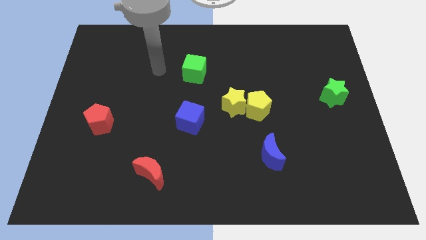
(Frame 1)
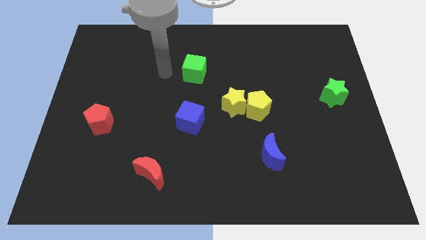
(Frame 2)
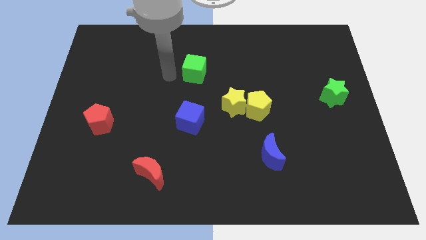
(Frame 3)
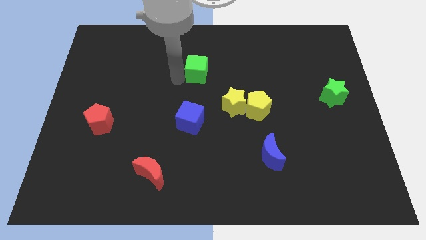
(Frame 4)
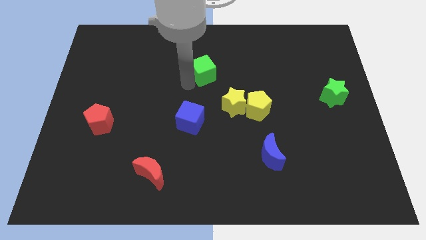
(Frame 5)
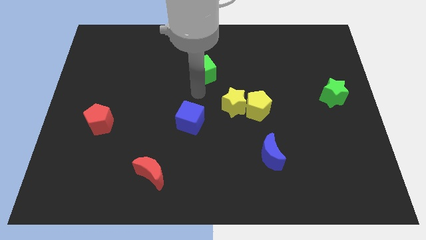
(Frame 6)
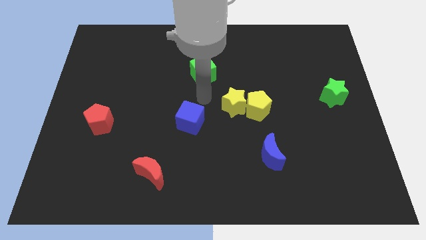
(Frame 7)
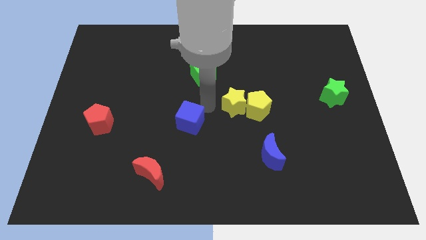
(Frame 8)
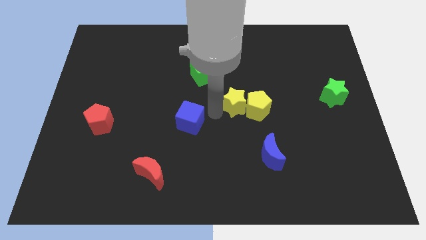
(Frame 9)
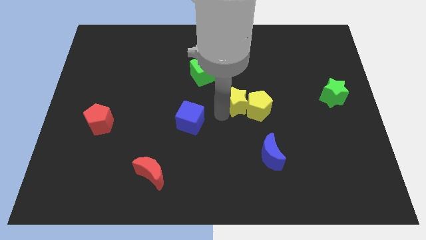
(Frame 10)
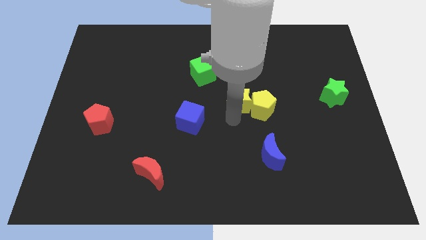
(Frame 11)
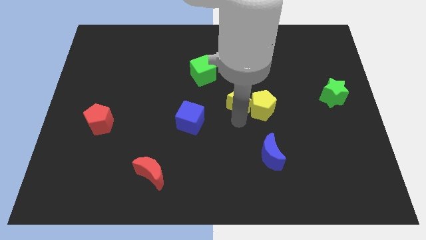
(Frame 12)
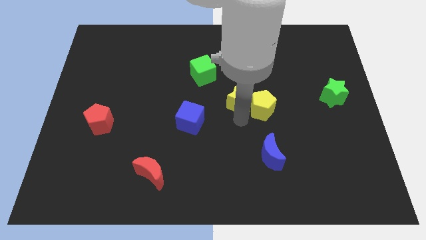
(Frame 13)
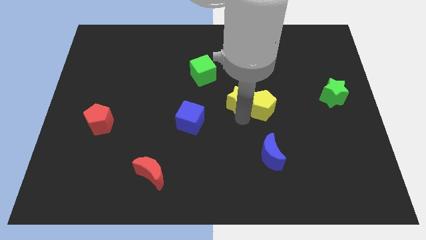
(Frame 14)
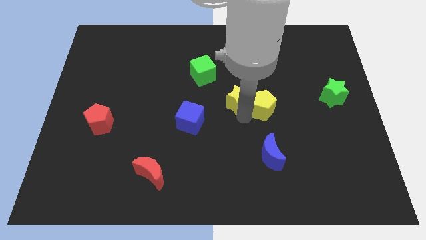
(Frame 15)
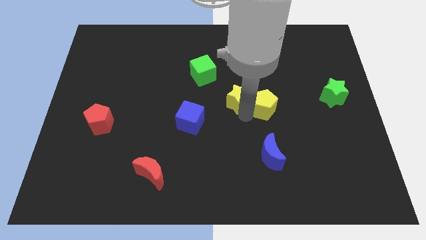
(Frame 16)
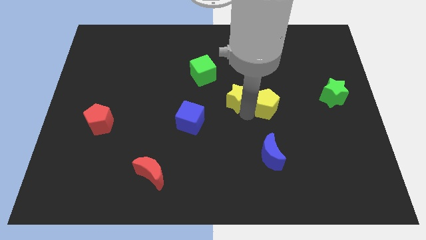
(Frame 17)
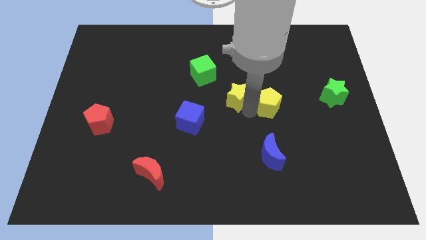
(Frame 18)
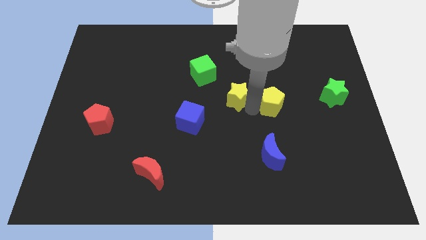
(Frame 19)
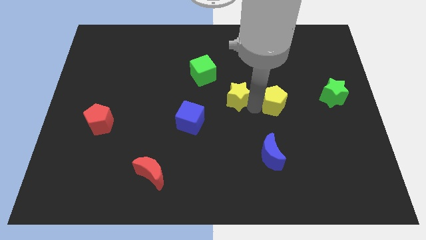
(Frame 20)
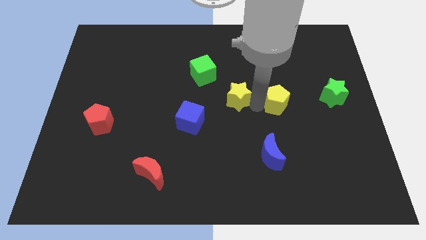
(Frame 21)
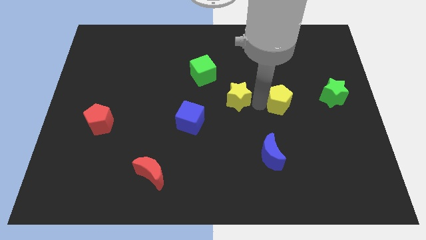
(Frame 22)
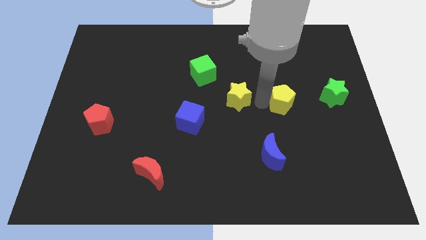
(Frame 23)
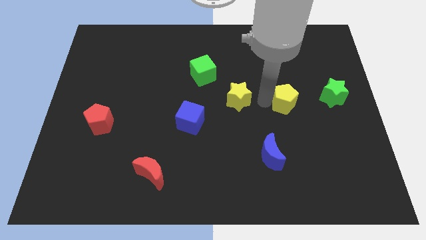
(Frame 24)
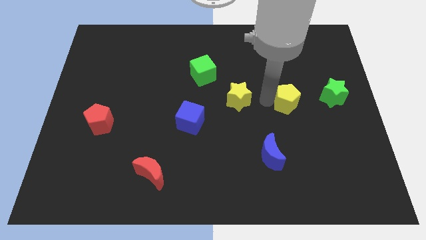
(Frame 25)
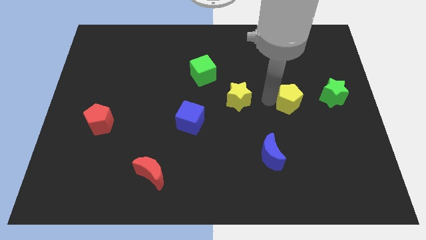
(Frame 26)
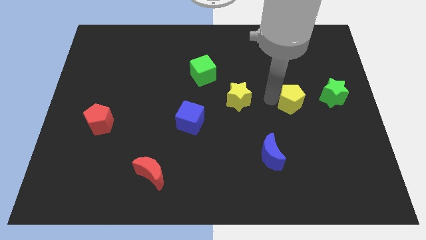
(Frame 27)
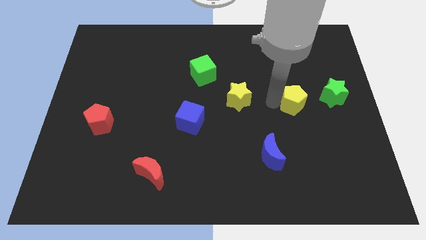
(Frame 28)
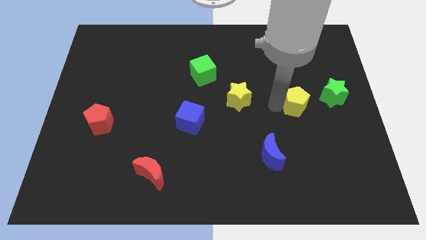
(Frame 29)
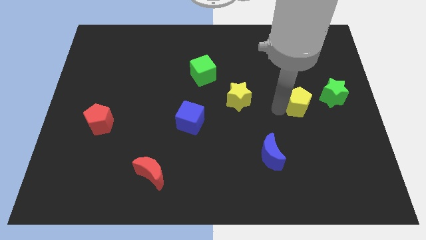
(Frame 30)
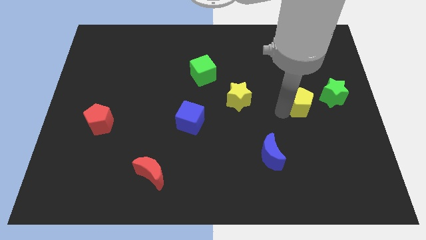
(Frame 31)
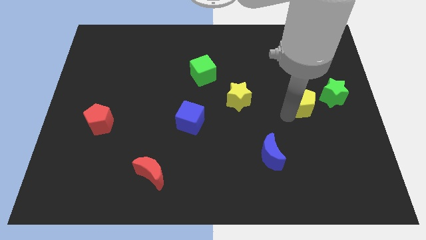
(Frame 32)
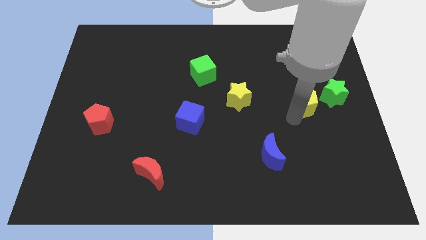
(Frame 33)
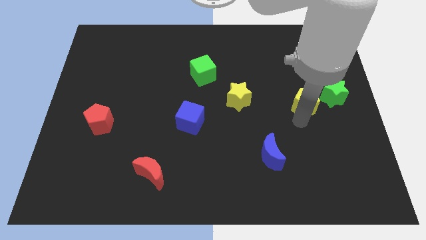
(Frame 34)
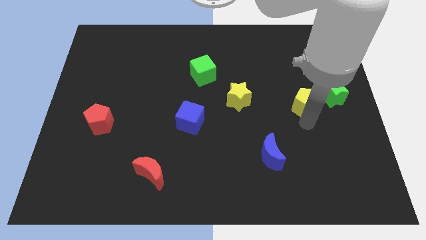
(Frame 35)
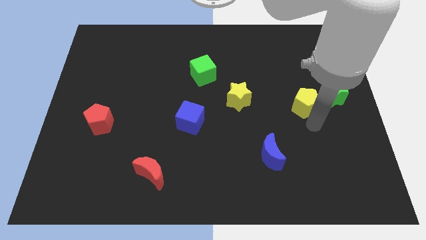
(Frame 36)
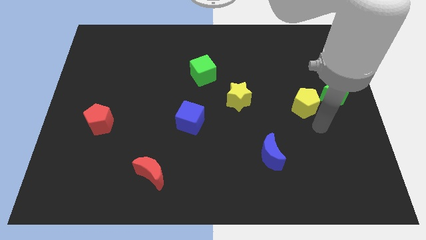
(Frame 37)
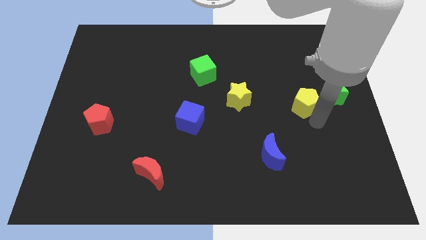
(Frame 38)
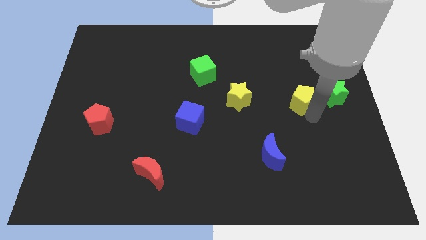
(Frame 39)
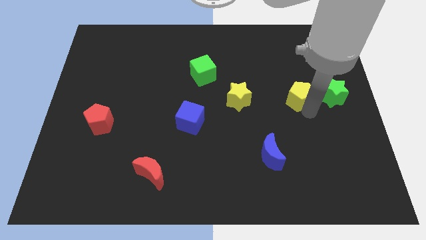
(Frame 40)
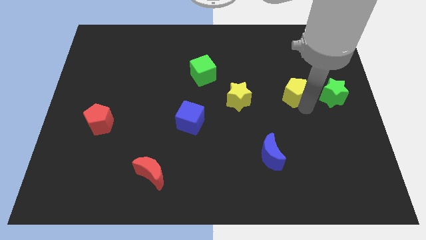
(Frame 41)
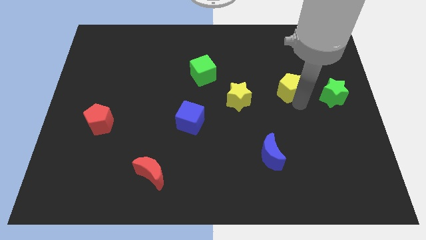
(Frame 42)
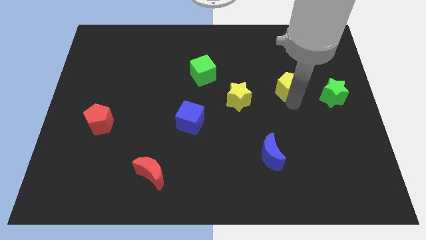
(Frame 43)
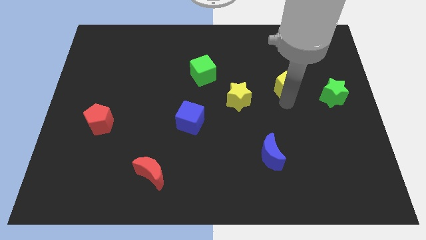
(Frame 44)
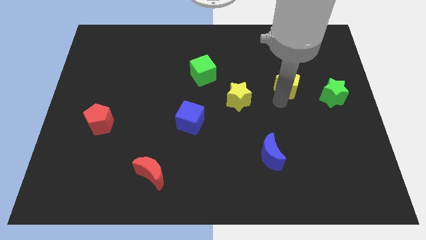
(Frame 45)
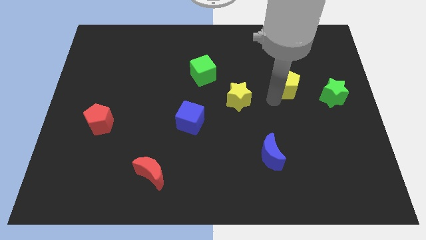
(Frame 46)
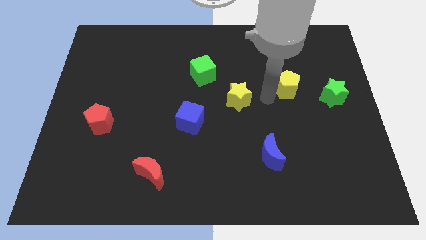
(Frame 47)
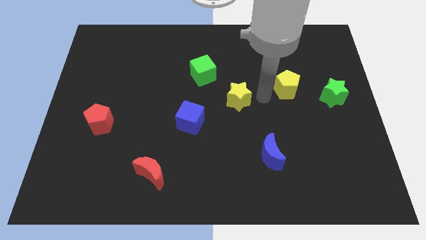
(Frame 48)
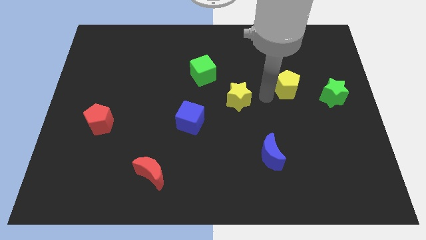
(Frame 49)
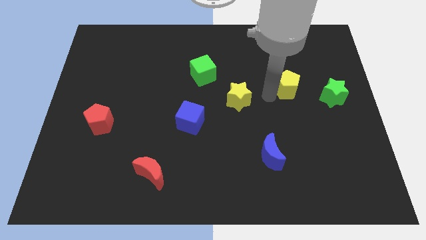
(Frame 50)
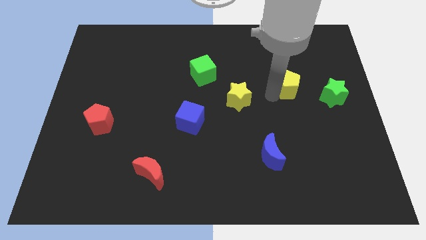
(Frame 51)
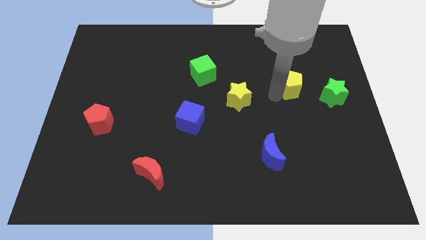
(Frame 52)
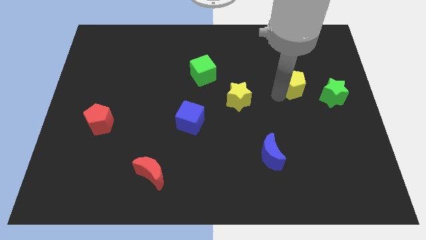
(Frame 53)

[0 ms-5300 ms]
move the yellow pentagon diagonally up and to the left of the green star

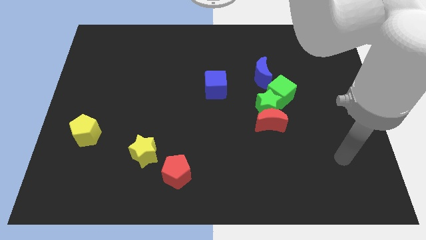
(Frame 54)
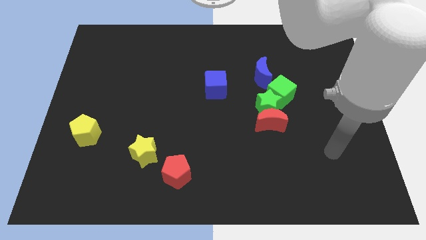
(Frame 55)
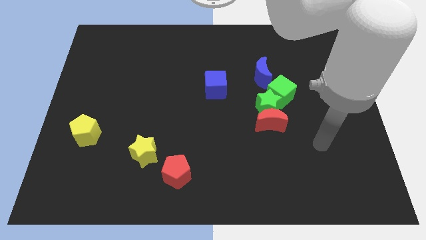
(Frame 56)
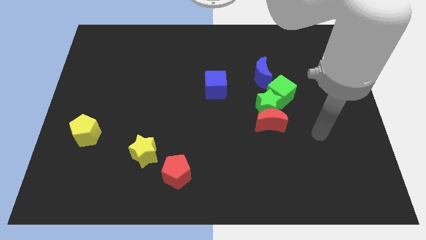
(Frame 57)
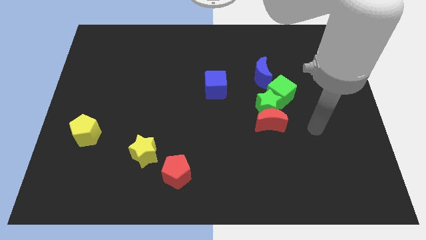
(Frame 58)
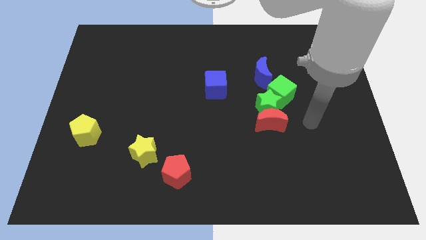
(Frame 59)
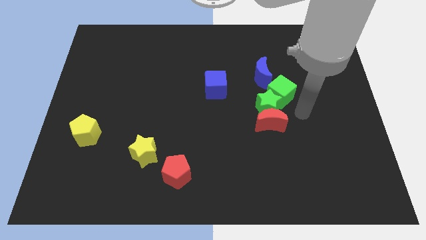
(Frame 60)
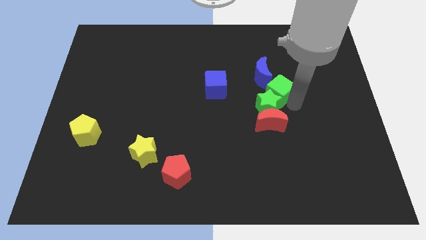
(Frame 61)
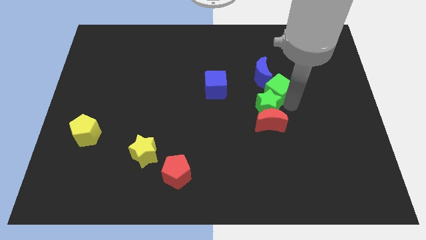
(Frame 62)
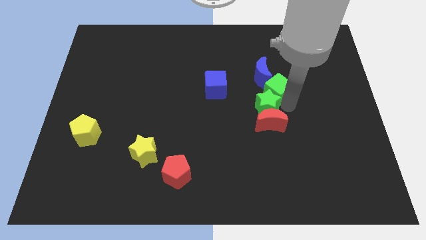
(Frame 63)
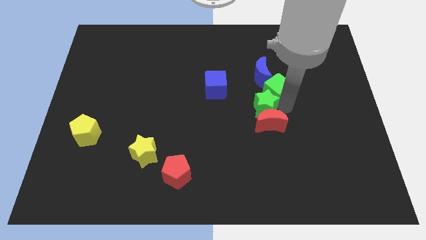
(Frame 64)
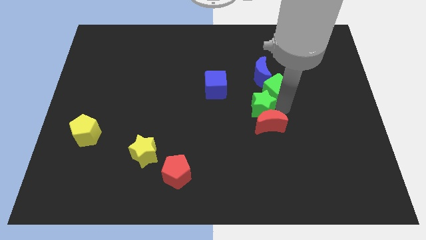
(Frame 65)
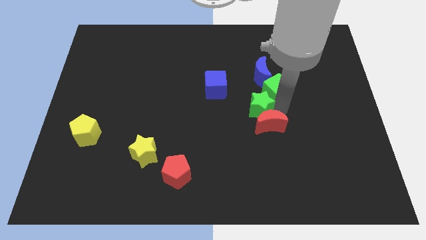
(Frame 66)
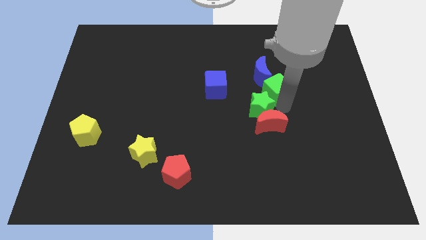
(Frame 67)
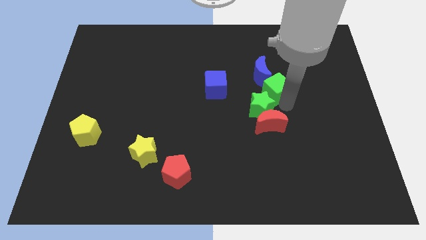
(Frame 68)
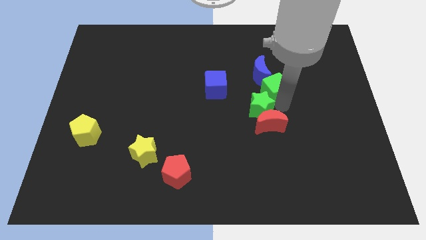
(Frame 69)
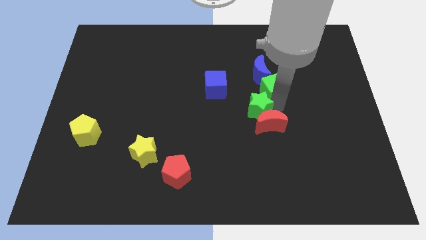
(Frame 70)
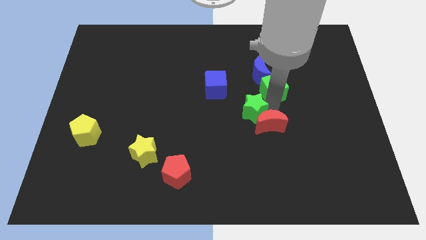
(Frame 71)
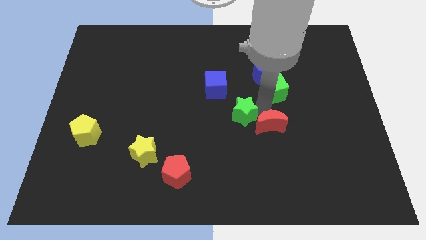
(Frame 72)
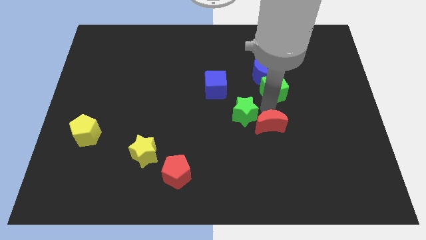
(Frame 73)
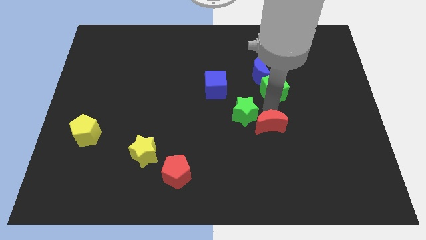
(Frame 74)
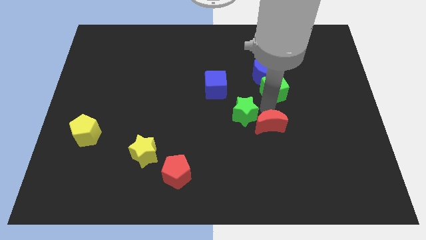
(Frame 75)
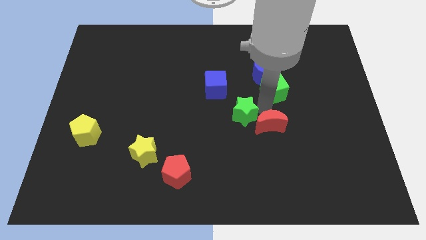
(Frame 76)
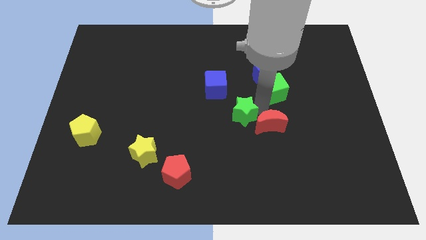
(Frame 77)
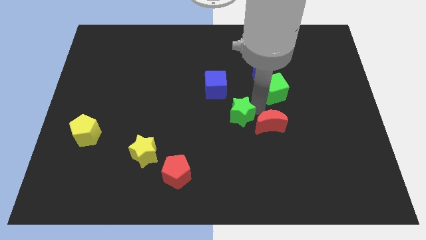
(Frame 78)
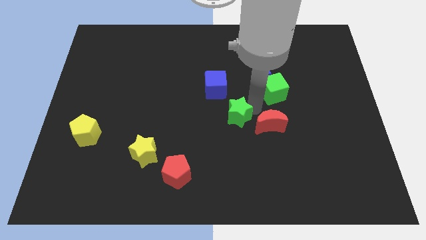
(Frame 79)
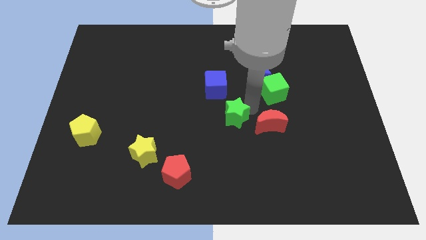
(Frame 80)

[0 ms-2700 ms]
put the green star below the blue cube
